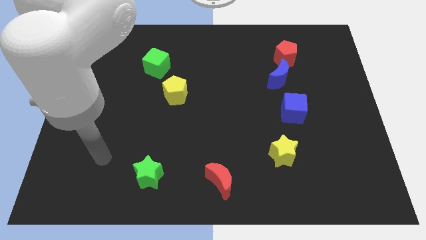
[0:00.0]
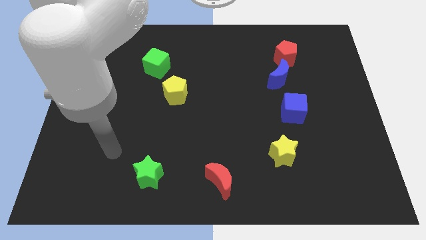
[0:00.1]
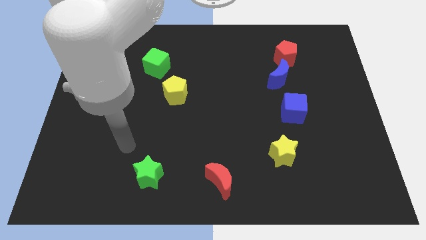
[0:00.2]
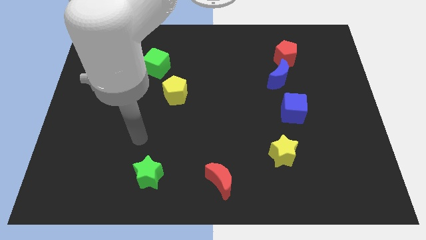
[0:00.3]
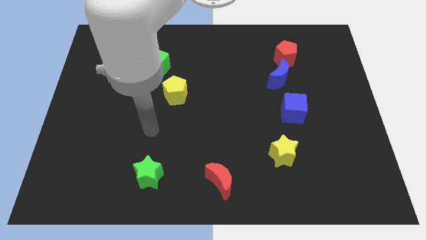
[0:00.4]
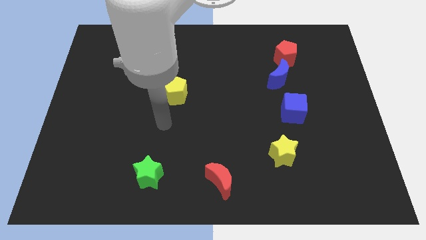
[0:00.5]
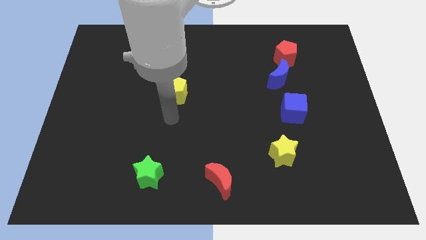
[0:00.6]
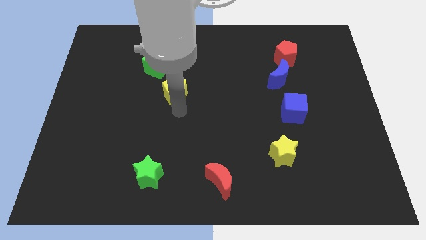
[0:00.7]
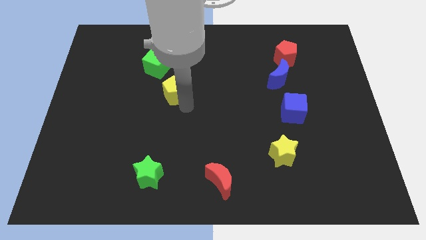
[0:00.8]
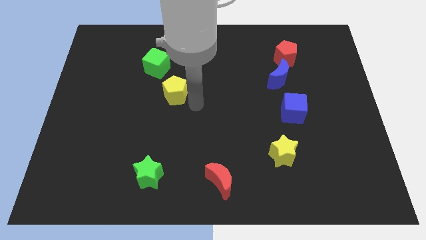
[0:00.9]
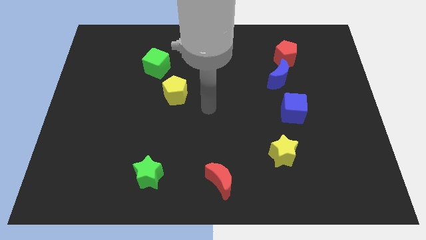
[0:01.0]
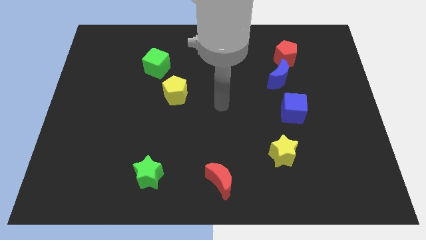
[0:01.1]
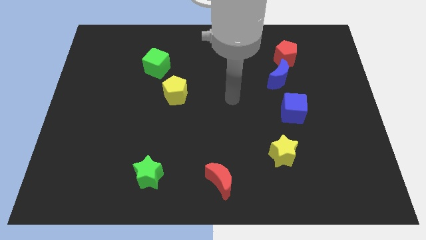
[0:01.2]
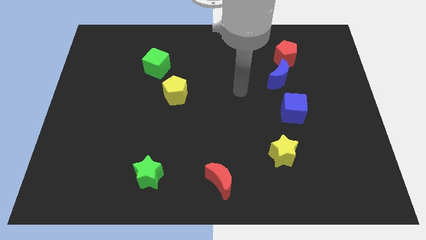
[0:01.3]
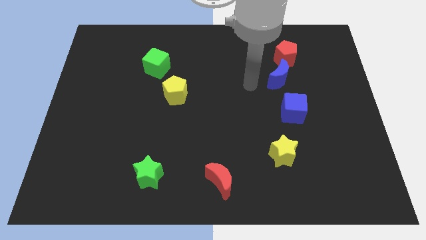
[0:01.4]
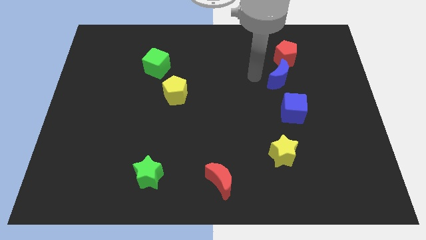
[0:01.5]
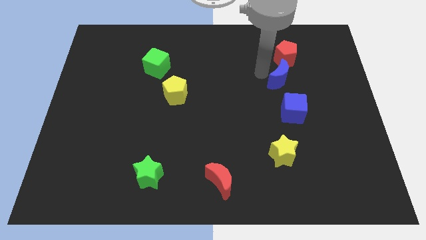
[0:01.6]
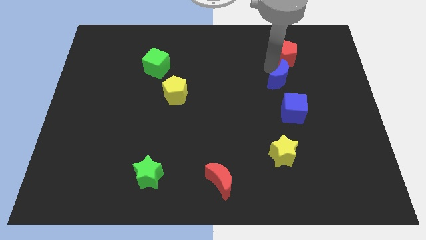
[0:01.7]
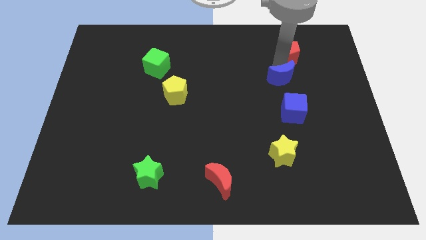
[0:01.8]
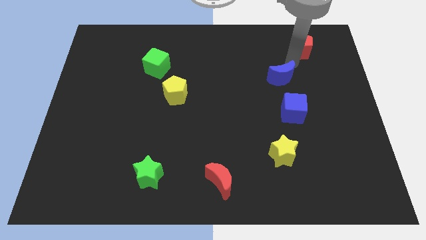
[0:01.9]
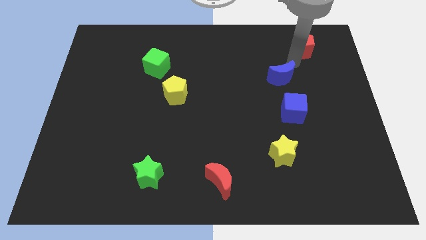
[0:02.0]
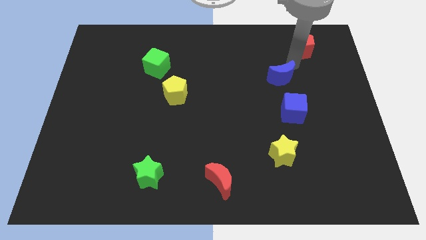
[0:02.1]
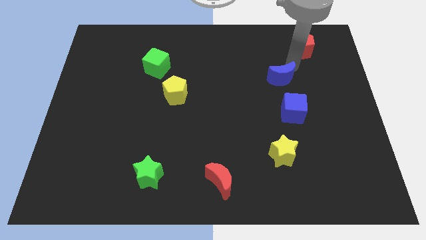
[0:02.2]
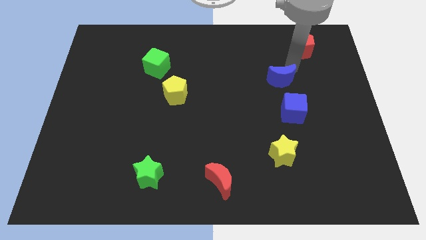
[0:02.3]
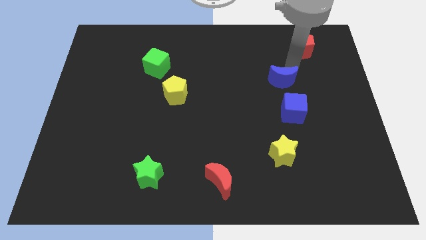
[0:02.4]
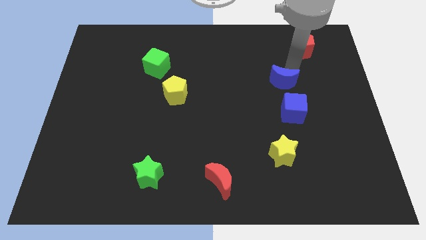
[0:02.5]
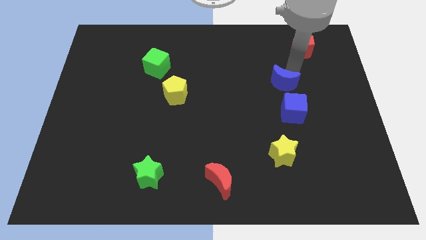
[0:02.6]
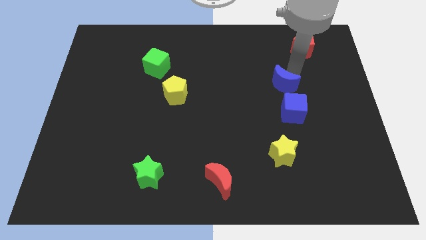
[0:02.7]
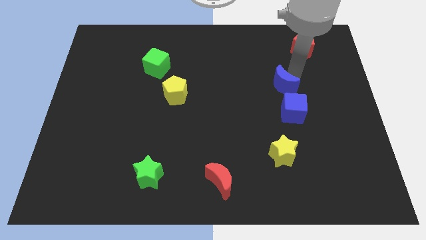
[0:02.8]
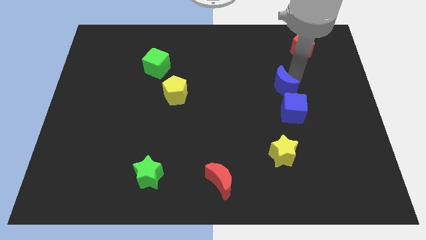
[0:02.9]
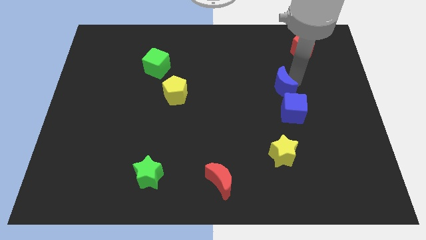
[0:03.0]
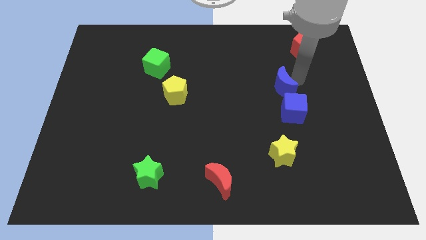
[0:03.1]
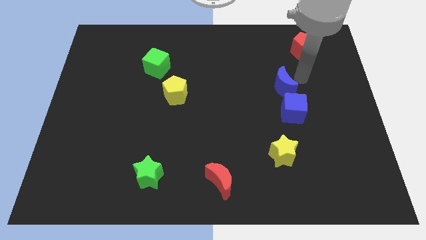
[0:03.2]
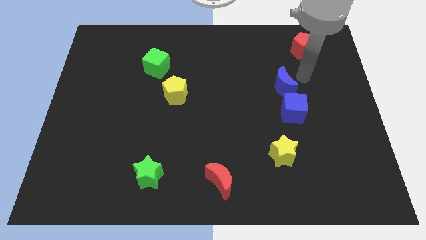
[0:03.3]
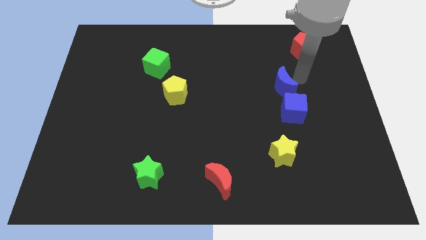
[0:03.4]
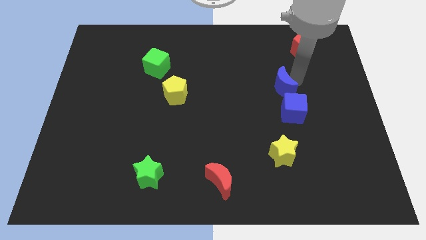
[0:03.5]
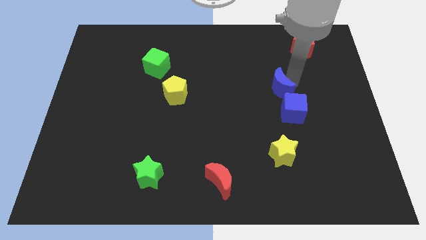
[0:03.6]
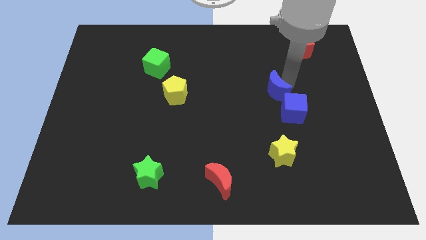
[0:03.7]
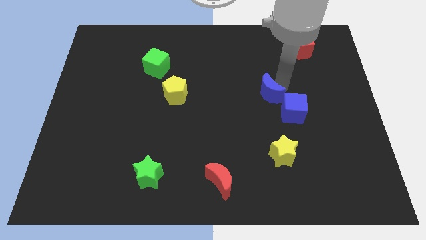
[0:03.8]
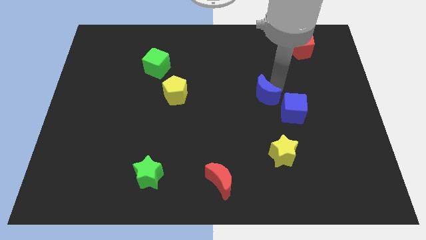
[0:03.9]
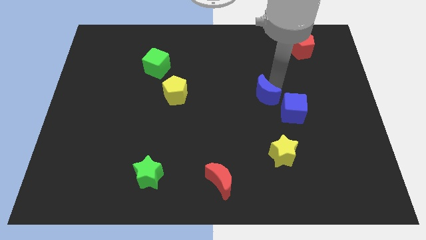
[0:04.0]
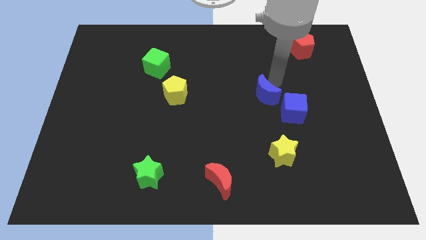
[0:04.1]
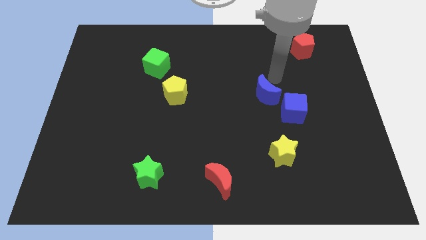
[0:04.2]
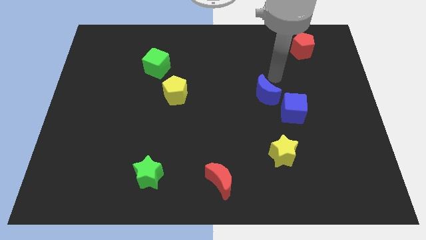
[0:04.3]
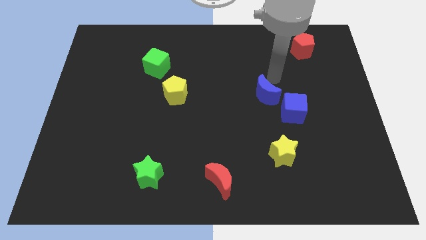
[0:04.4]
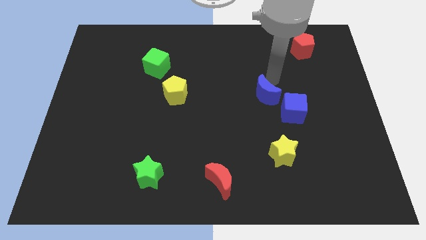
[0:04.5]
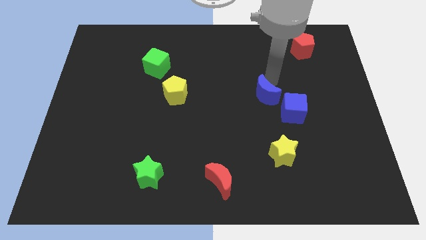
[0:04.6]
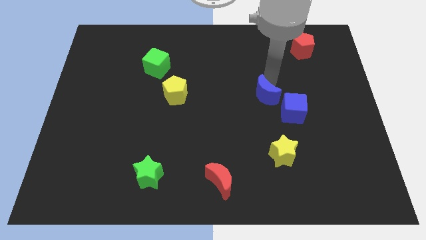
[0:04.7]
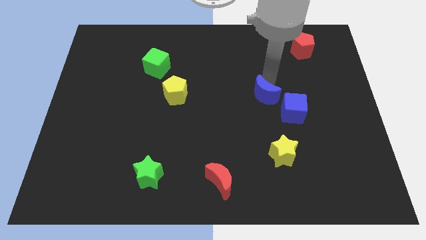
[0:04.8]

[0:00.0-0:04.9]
move the blue moon slightly down and then left

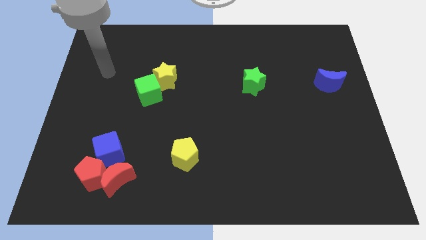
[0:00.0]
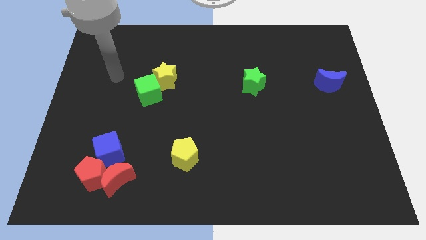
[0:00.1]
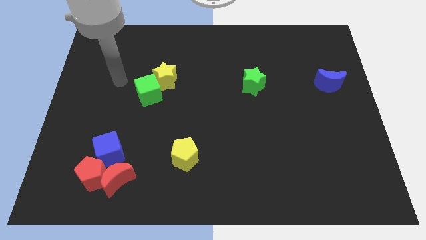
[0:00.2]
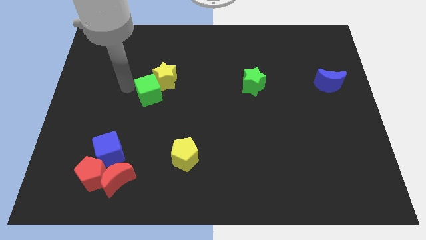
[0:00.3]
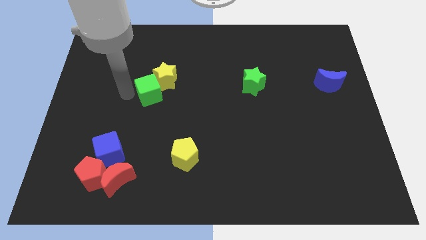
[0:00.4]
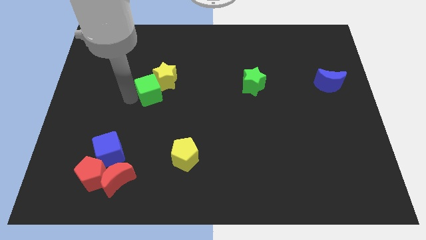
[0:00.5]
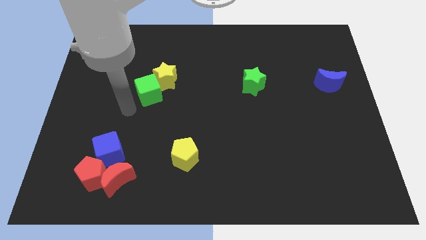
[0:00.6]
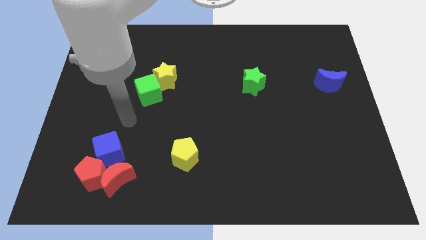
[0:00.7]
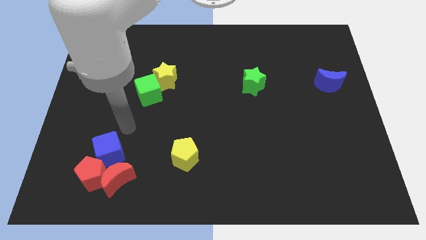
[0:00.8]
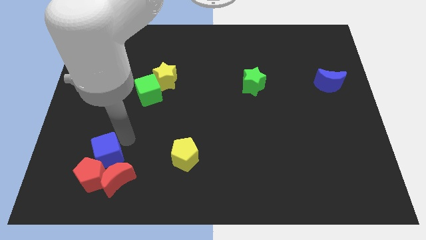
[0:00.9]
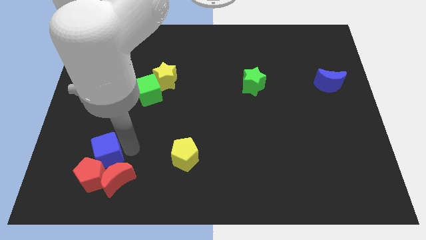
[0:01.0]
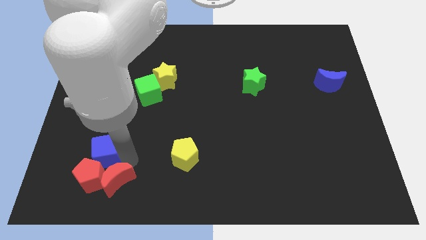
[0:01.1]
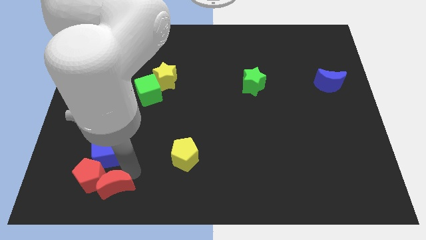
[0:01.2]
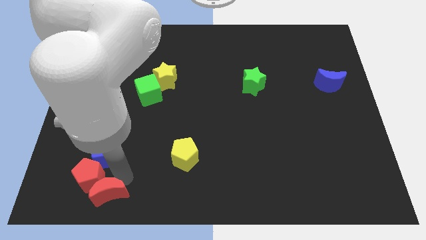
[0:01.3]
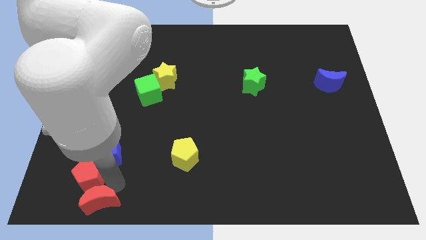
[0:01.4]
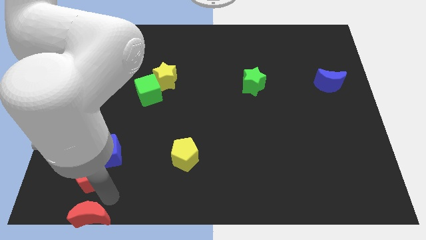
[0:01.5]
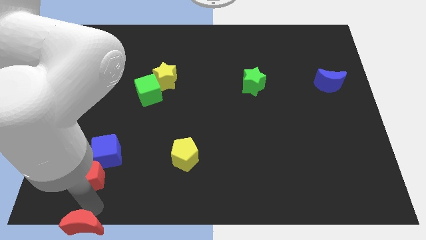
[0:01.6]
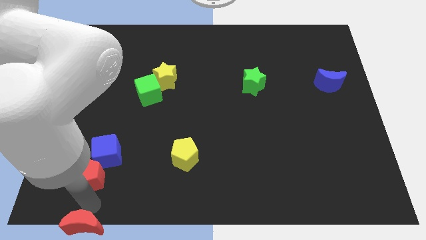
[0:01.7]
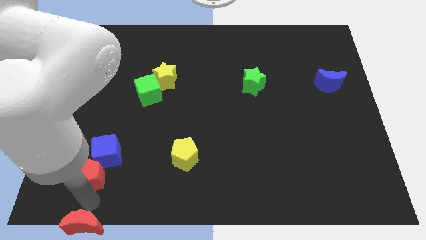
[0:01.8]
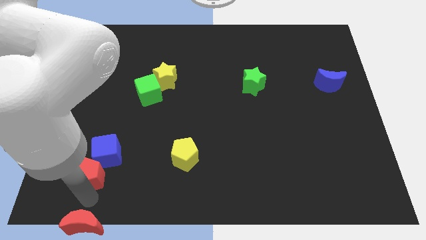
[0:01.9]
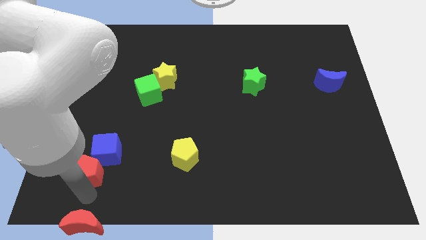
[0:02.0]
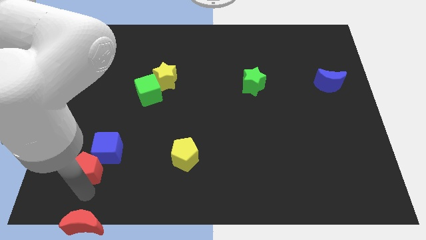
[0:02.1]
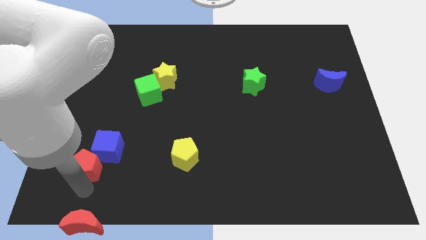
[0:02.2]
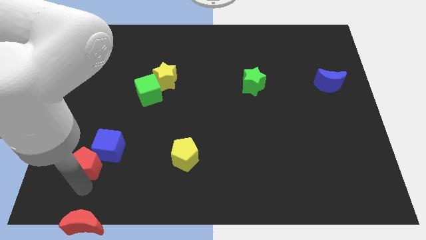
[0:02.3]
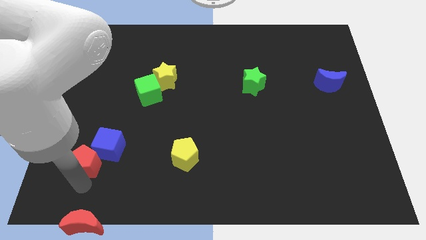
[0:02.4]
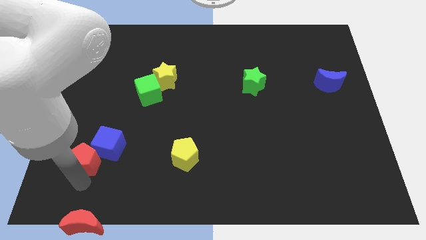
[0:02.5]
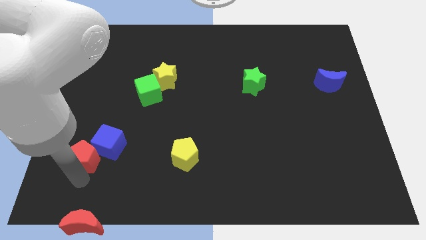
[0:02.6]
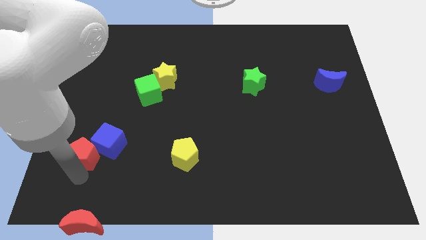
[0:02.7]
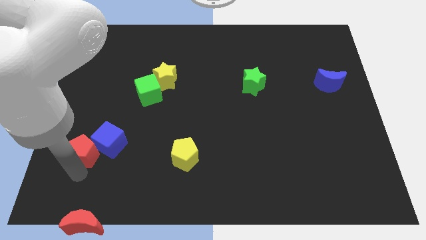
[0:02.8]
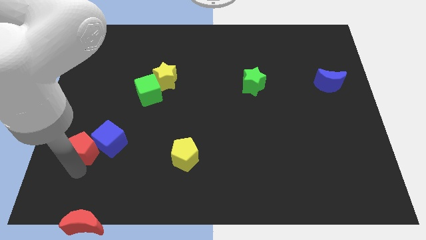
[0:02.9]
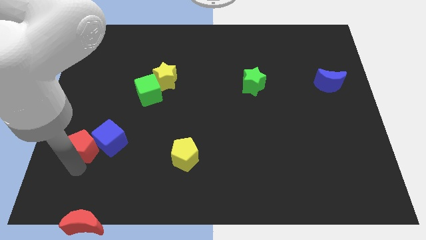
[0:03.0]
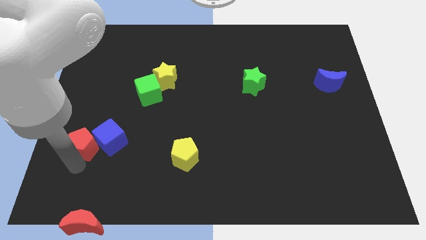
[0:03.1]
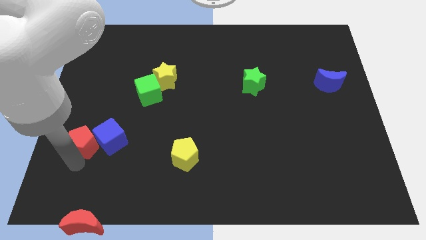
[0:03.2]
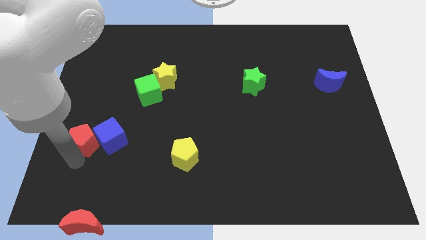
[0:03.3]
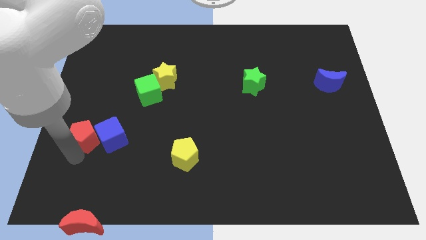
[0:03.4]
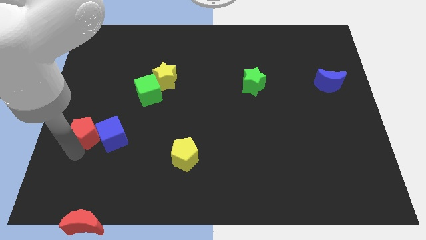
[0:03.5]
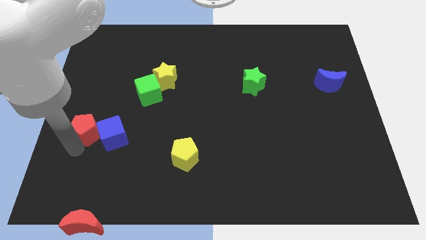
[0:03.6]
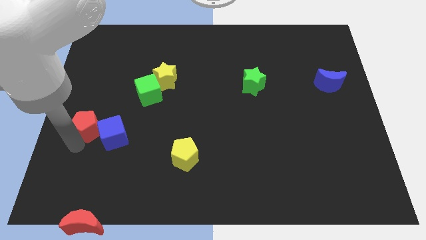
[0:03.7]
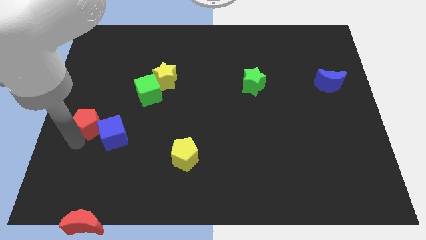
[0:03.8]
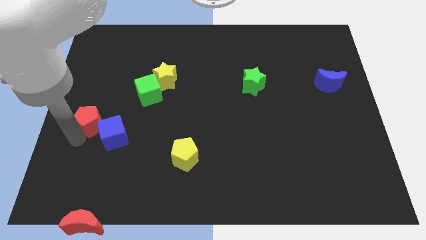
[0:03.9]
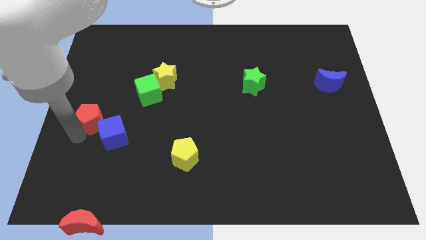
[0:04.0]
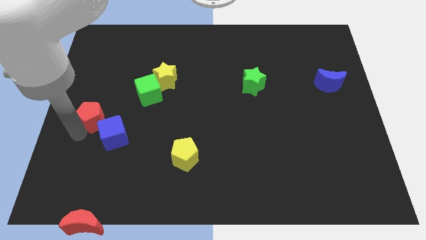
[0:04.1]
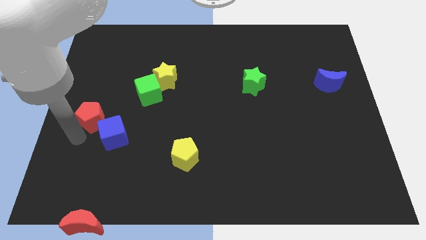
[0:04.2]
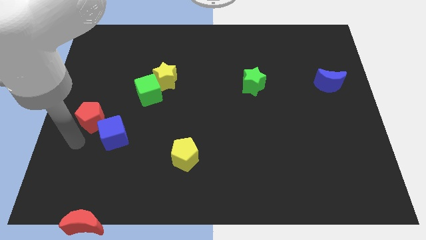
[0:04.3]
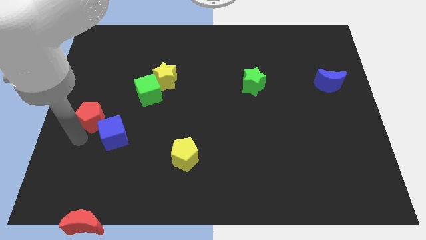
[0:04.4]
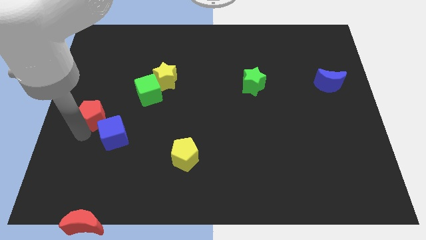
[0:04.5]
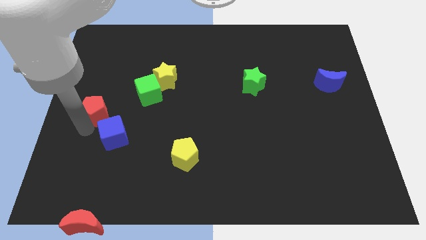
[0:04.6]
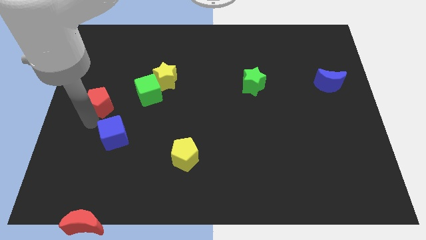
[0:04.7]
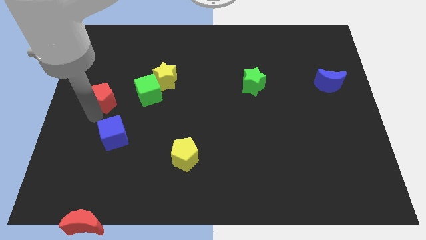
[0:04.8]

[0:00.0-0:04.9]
push the red pentagon up
